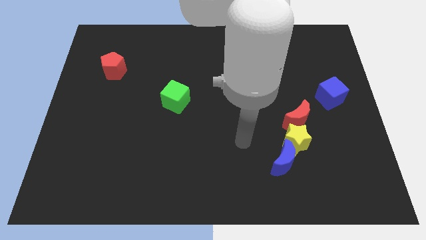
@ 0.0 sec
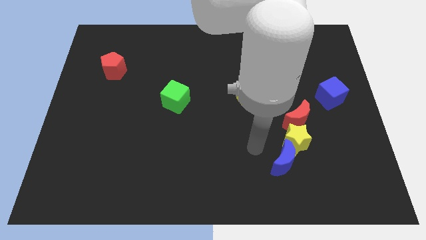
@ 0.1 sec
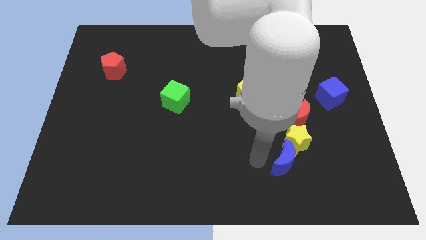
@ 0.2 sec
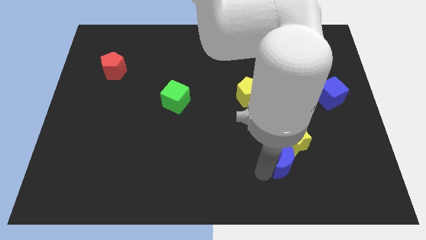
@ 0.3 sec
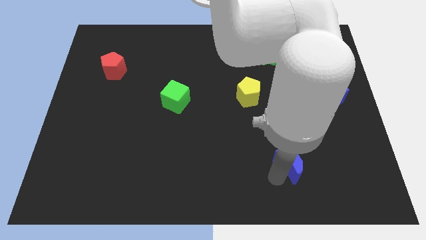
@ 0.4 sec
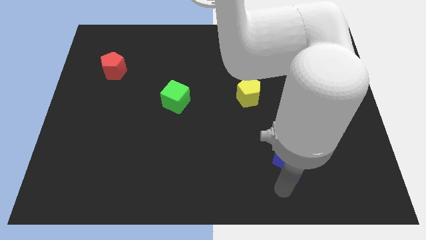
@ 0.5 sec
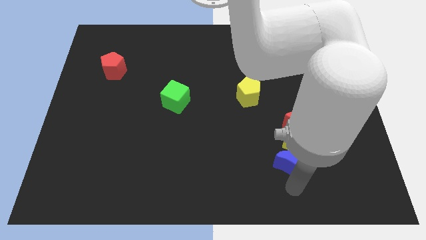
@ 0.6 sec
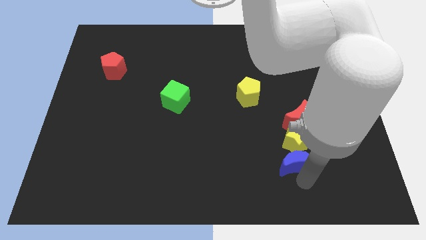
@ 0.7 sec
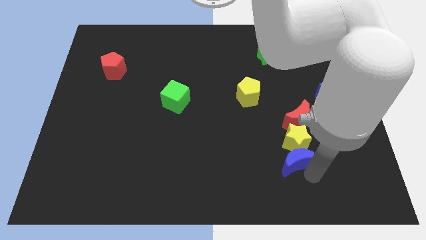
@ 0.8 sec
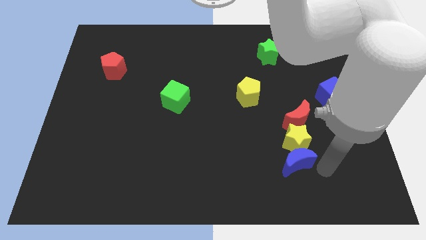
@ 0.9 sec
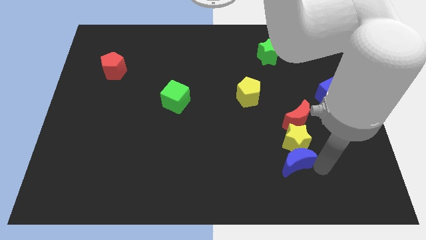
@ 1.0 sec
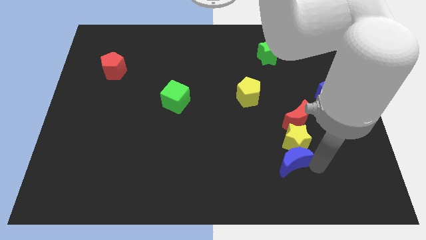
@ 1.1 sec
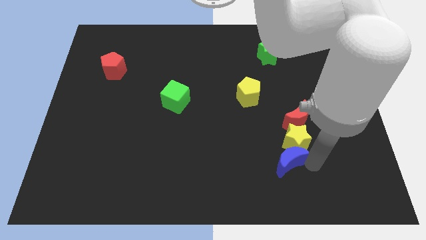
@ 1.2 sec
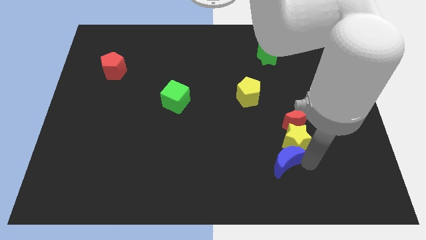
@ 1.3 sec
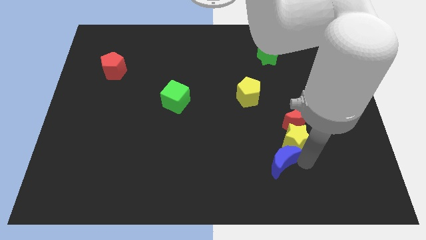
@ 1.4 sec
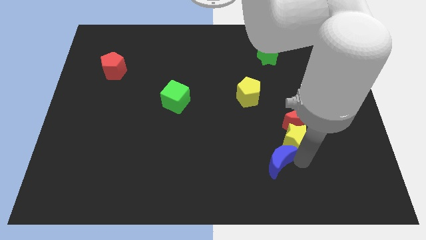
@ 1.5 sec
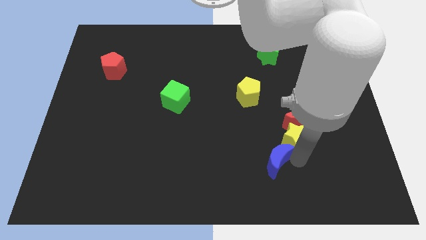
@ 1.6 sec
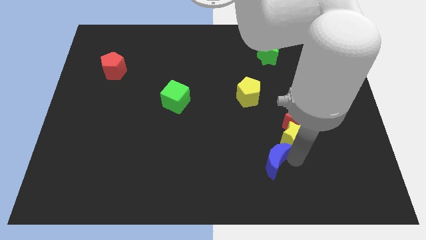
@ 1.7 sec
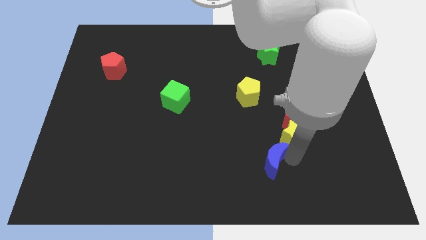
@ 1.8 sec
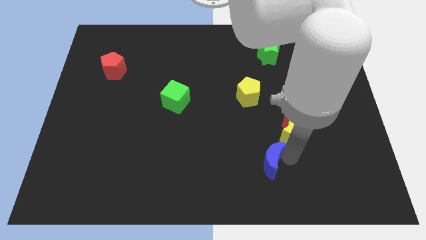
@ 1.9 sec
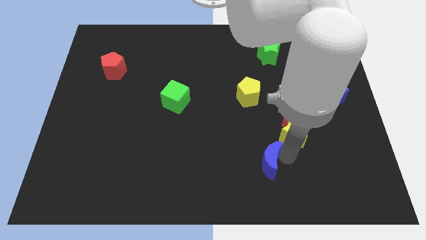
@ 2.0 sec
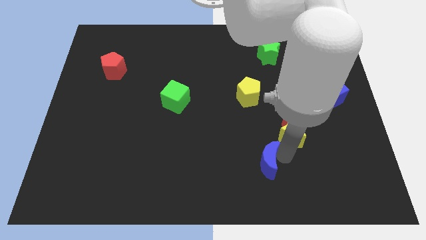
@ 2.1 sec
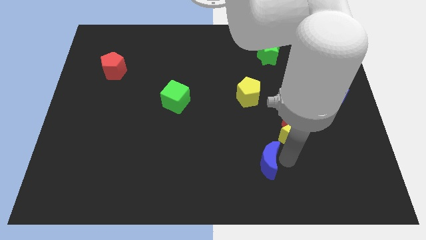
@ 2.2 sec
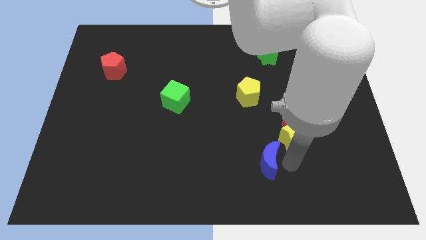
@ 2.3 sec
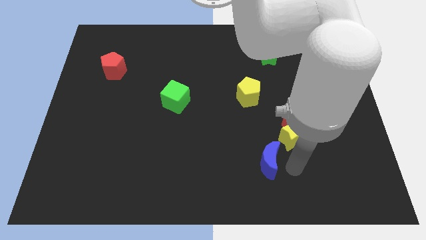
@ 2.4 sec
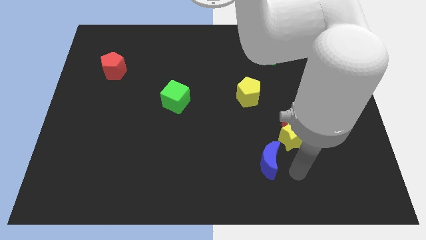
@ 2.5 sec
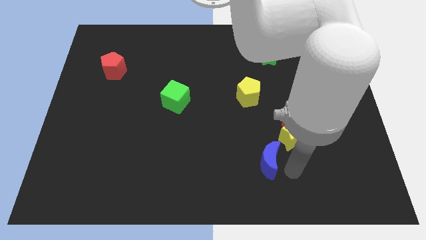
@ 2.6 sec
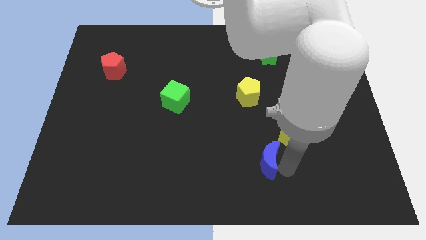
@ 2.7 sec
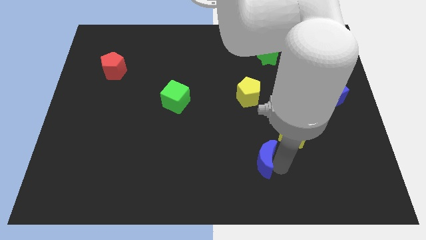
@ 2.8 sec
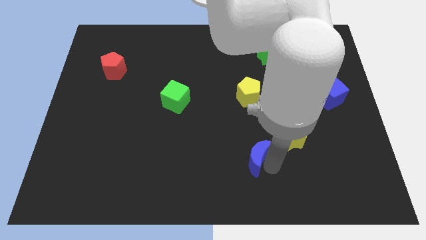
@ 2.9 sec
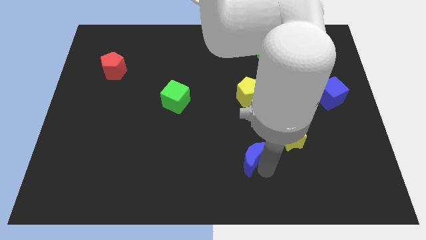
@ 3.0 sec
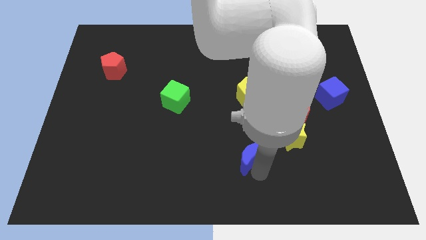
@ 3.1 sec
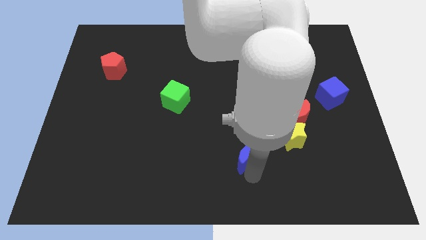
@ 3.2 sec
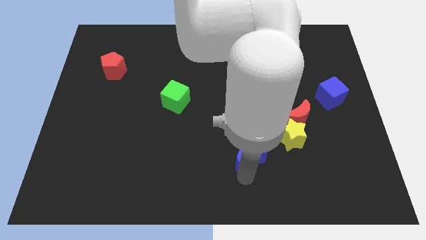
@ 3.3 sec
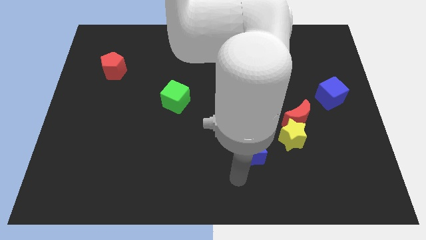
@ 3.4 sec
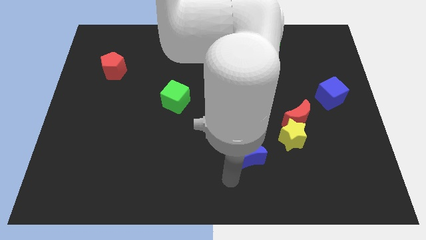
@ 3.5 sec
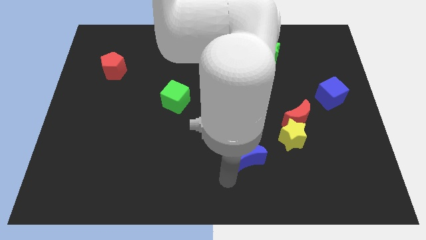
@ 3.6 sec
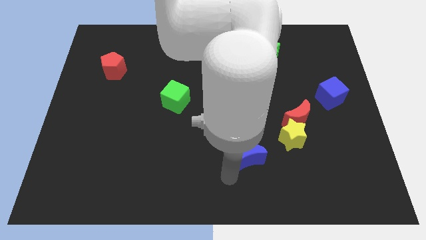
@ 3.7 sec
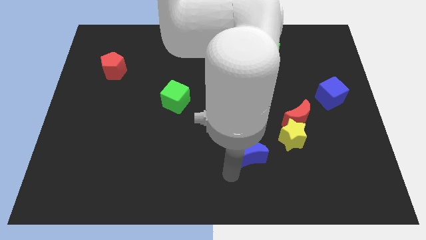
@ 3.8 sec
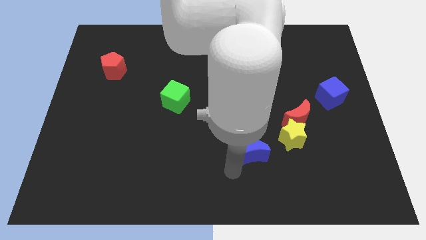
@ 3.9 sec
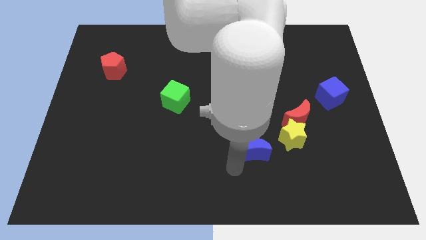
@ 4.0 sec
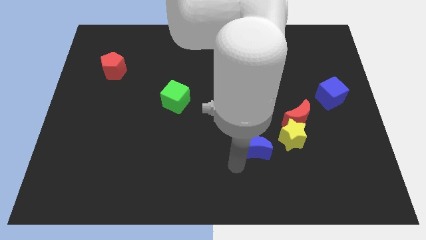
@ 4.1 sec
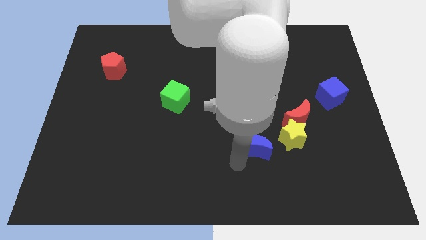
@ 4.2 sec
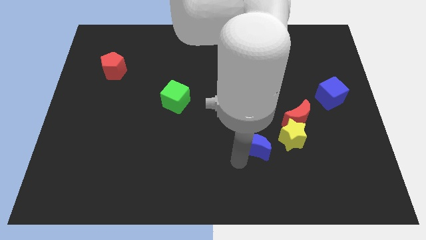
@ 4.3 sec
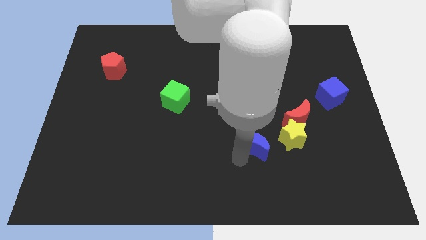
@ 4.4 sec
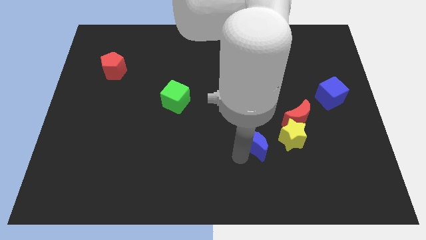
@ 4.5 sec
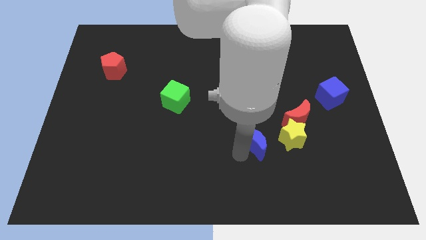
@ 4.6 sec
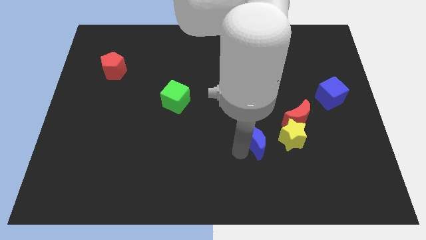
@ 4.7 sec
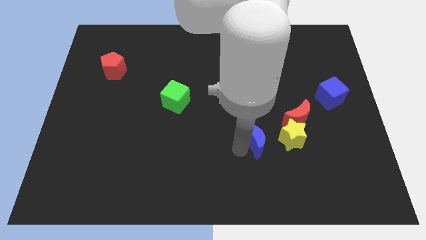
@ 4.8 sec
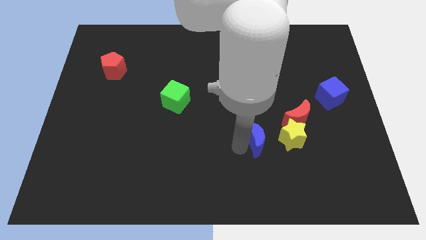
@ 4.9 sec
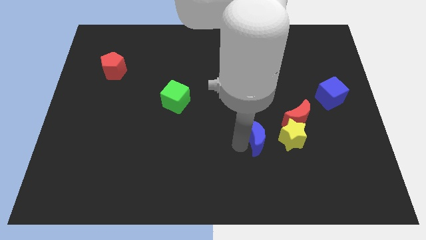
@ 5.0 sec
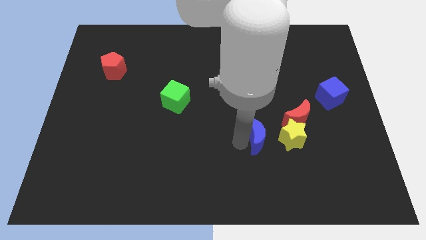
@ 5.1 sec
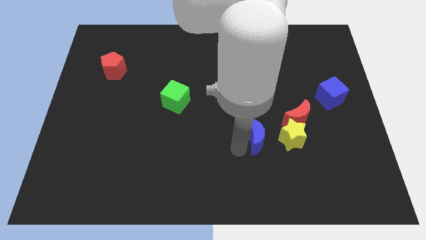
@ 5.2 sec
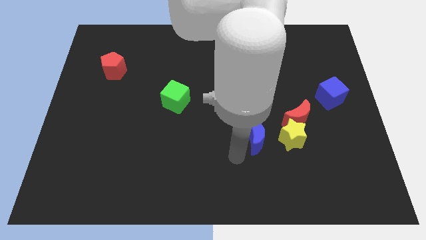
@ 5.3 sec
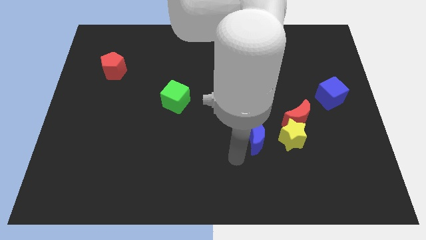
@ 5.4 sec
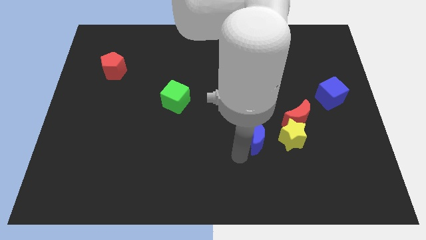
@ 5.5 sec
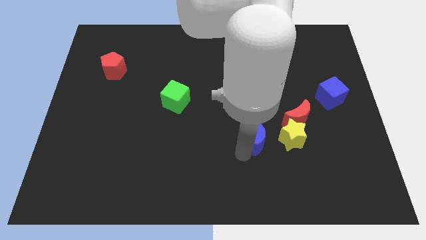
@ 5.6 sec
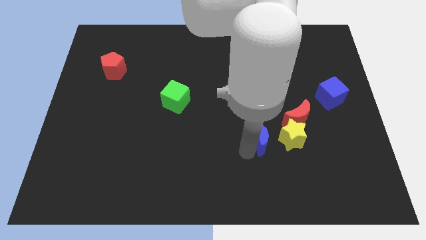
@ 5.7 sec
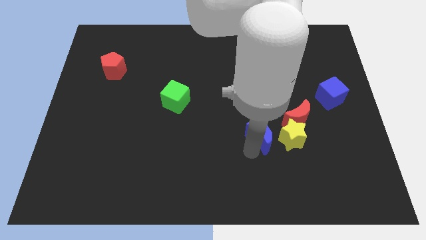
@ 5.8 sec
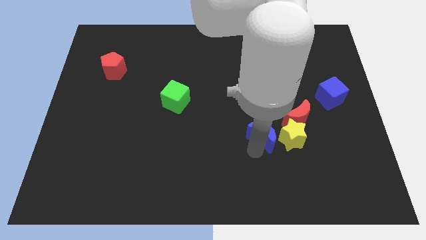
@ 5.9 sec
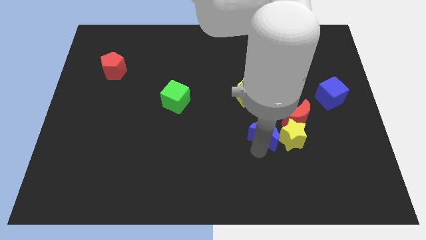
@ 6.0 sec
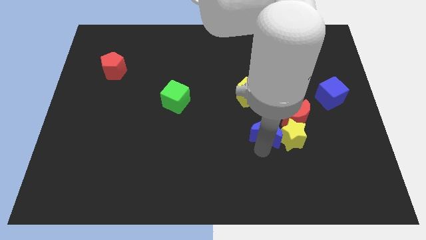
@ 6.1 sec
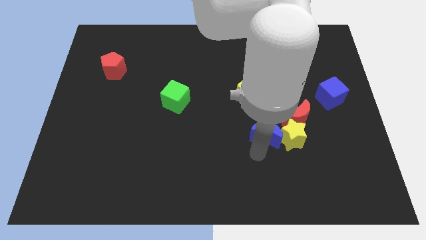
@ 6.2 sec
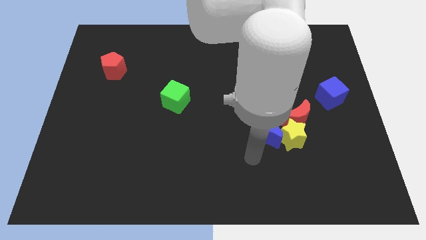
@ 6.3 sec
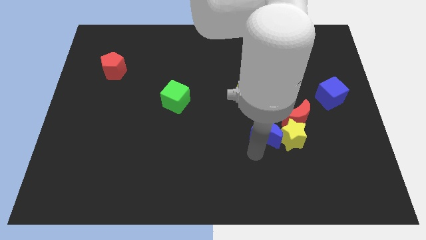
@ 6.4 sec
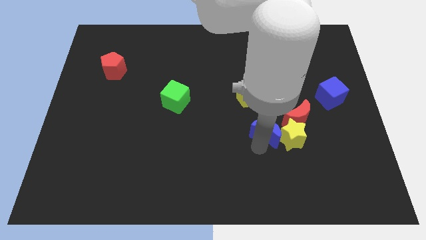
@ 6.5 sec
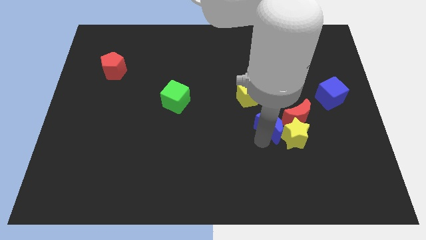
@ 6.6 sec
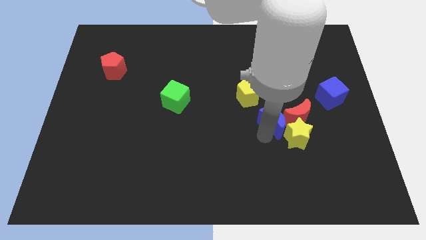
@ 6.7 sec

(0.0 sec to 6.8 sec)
put the blue moon to the top side of the yellow star
